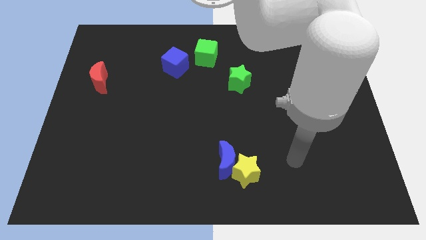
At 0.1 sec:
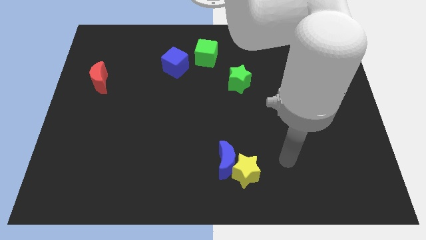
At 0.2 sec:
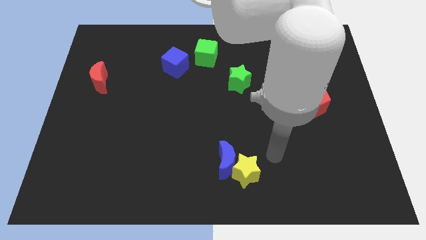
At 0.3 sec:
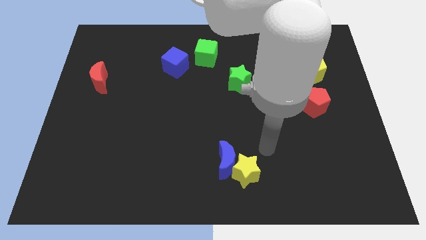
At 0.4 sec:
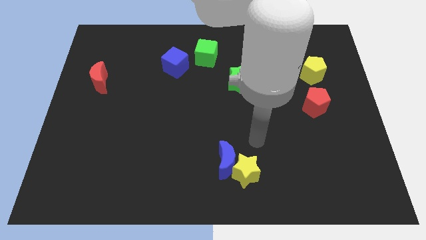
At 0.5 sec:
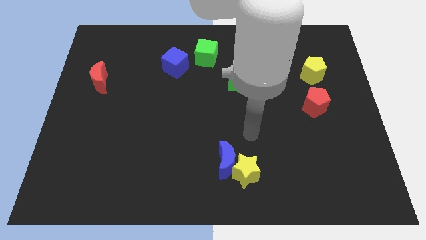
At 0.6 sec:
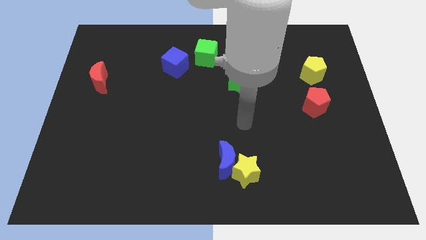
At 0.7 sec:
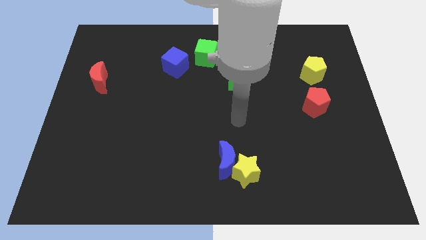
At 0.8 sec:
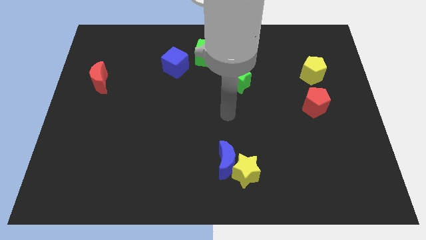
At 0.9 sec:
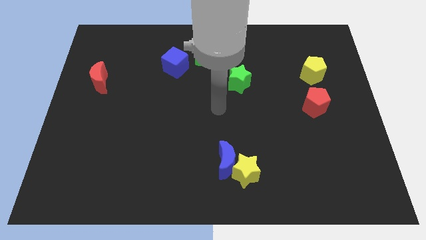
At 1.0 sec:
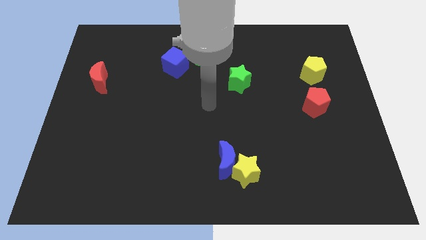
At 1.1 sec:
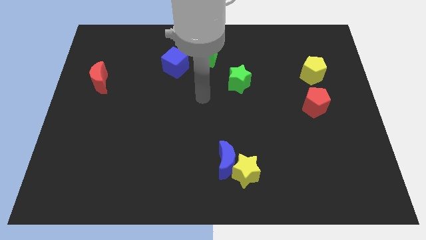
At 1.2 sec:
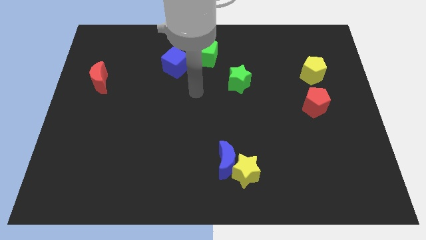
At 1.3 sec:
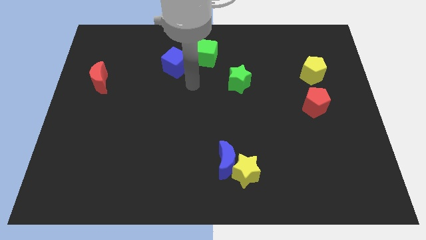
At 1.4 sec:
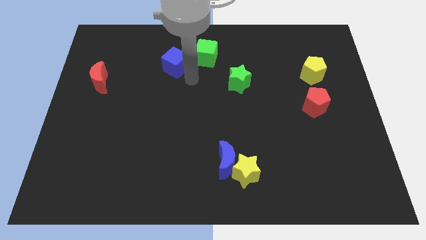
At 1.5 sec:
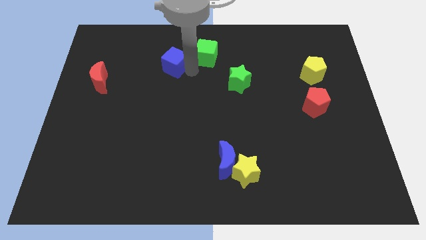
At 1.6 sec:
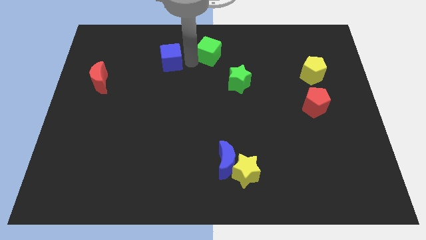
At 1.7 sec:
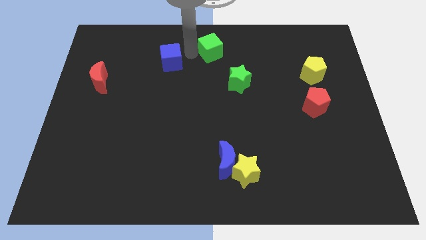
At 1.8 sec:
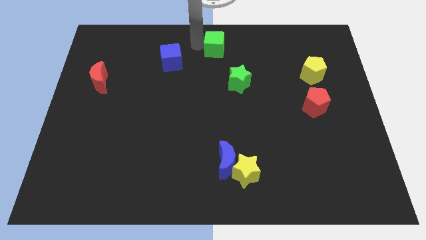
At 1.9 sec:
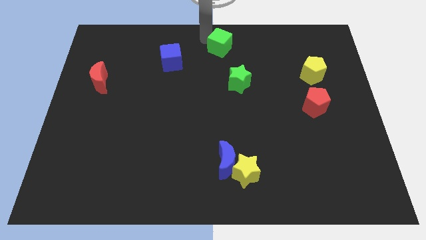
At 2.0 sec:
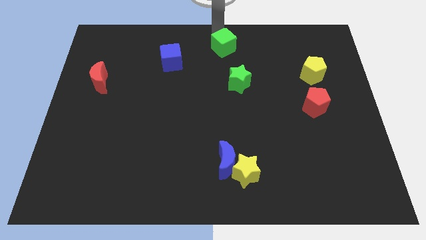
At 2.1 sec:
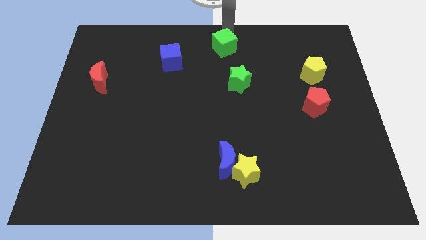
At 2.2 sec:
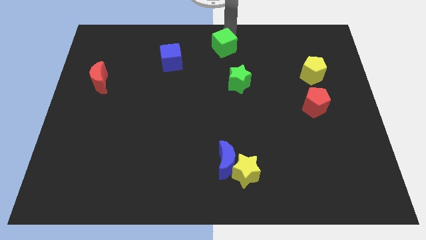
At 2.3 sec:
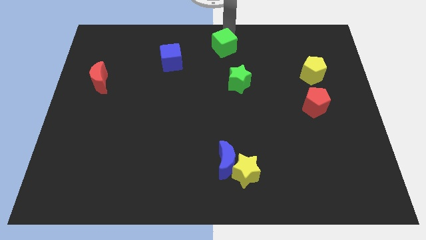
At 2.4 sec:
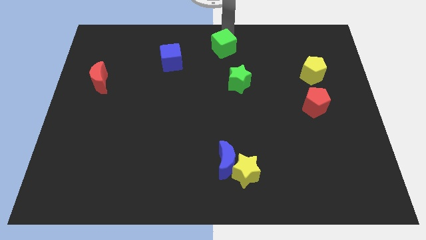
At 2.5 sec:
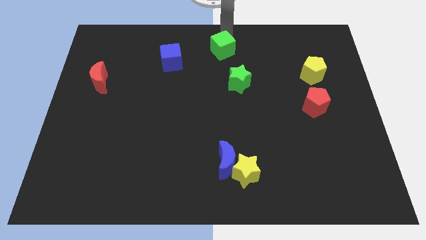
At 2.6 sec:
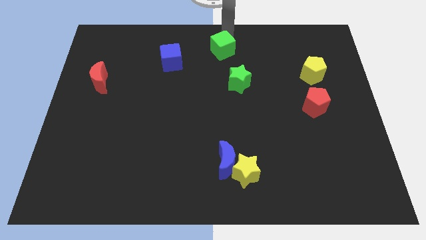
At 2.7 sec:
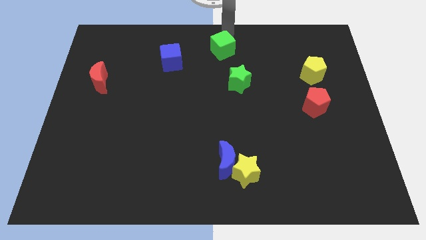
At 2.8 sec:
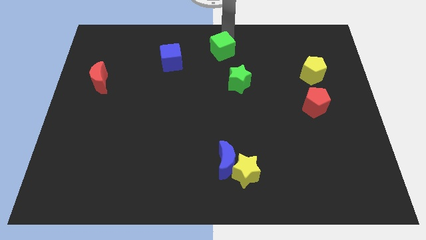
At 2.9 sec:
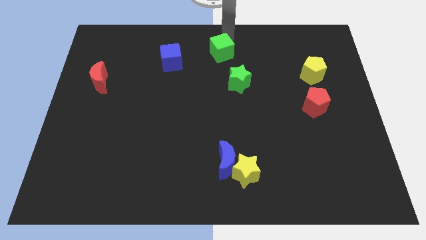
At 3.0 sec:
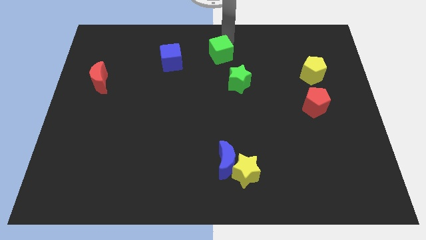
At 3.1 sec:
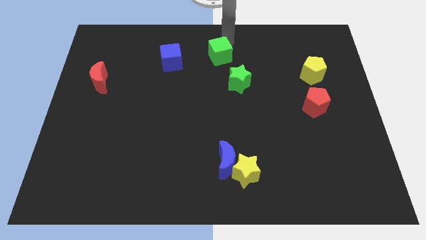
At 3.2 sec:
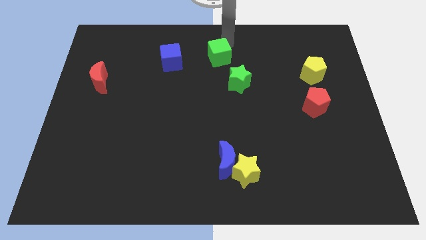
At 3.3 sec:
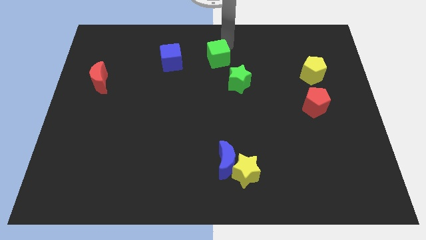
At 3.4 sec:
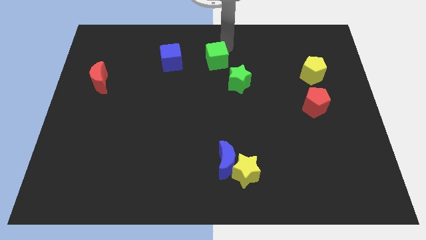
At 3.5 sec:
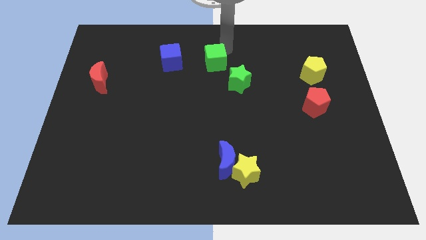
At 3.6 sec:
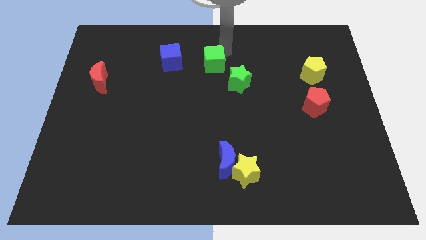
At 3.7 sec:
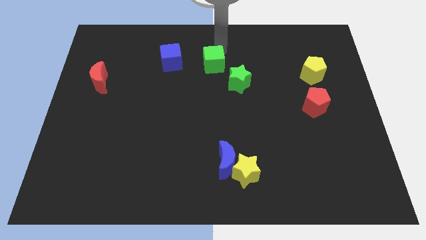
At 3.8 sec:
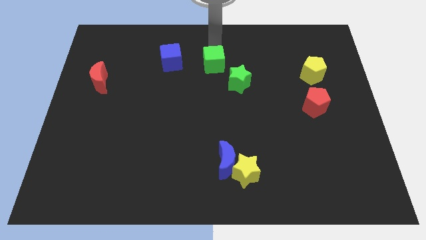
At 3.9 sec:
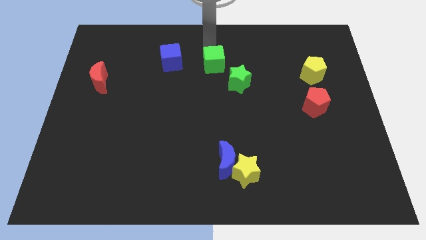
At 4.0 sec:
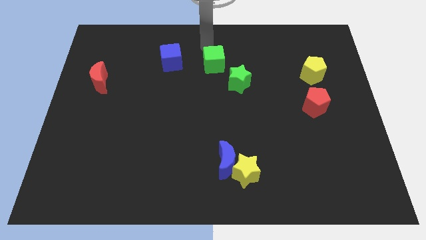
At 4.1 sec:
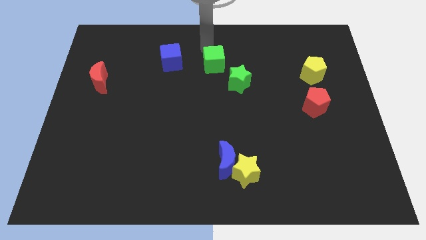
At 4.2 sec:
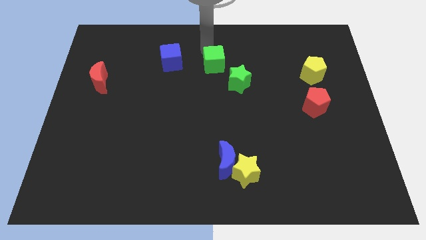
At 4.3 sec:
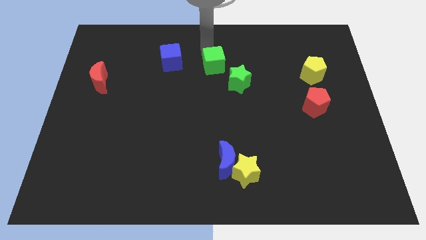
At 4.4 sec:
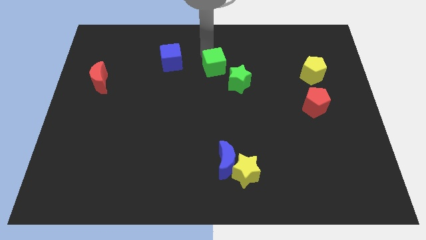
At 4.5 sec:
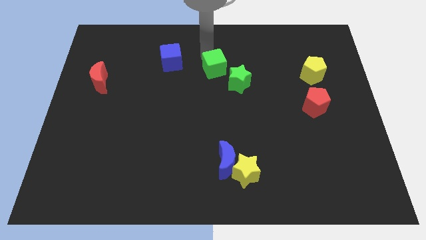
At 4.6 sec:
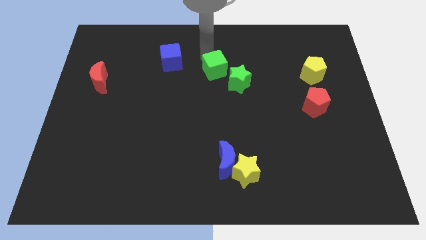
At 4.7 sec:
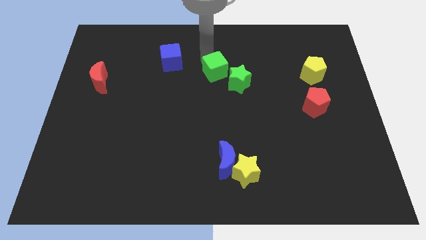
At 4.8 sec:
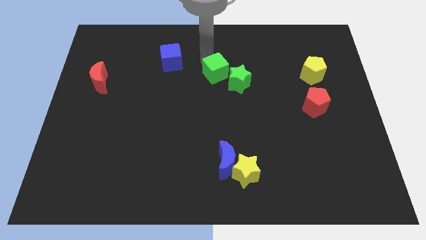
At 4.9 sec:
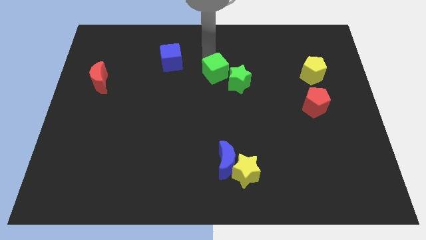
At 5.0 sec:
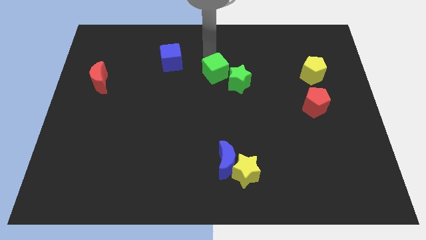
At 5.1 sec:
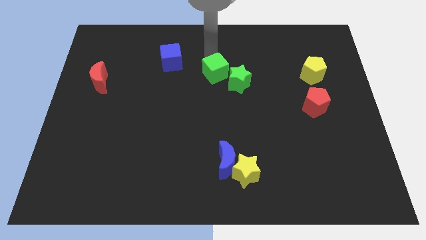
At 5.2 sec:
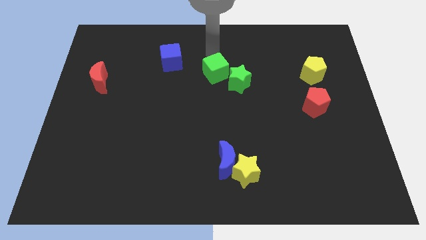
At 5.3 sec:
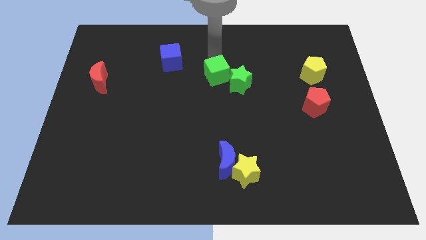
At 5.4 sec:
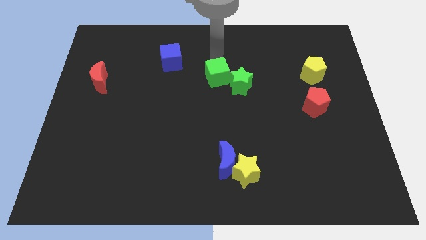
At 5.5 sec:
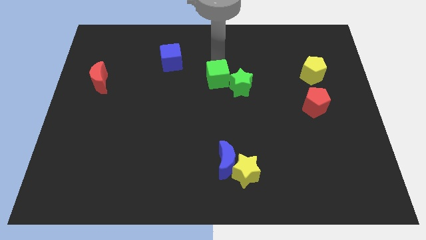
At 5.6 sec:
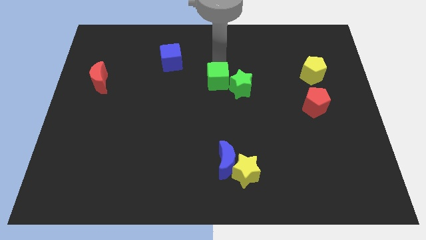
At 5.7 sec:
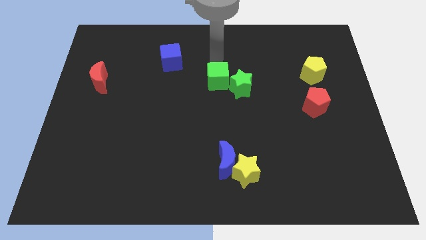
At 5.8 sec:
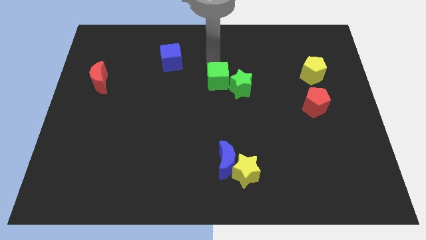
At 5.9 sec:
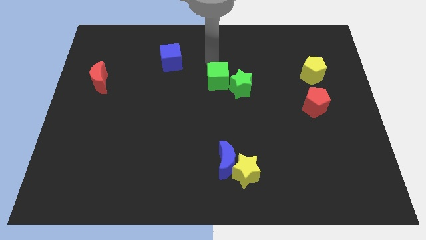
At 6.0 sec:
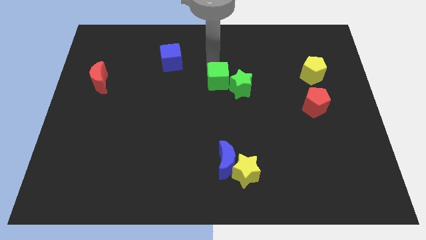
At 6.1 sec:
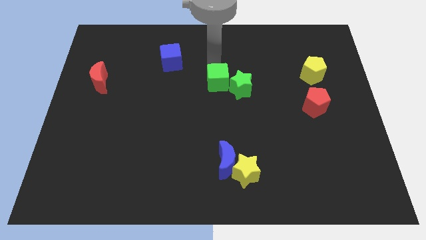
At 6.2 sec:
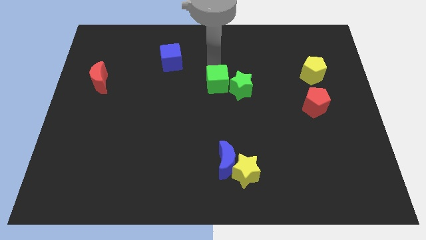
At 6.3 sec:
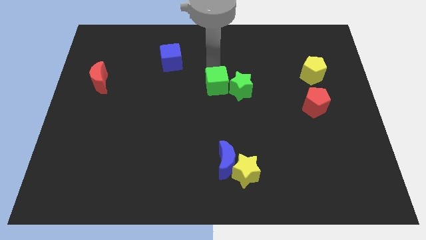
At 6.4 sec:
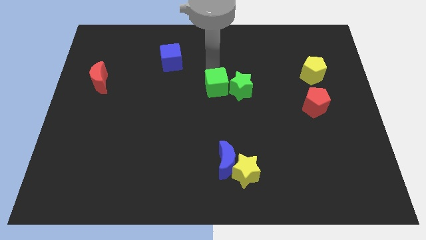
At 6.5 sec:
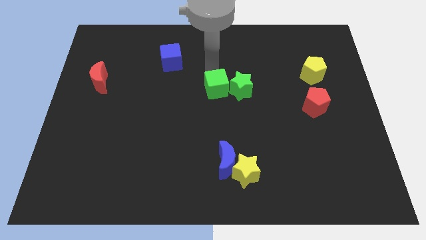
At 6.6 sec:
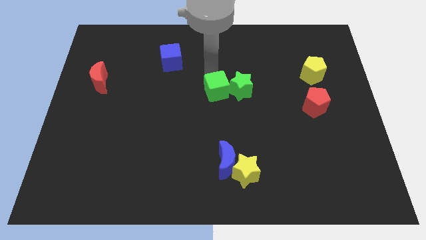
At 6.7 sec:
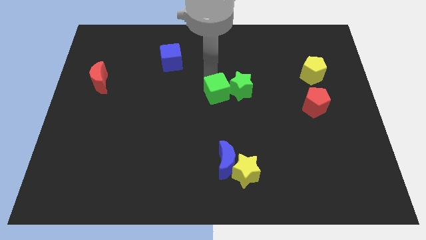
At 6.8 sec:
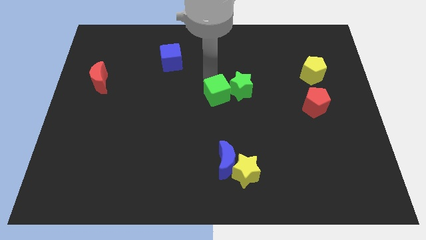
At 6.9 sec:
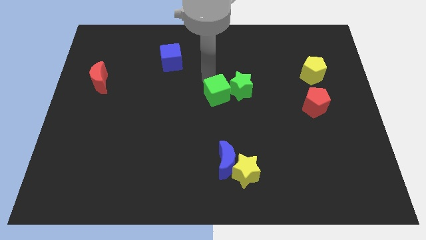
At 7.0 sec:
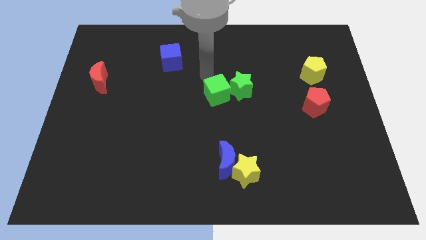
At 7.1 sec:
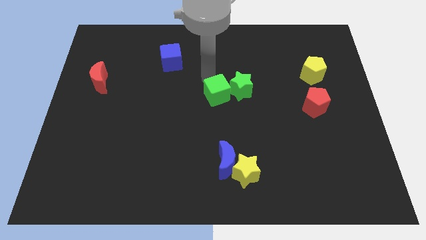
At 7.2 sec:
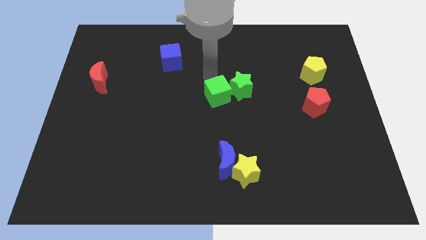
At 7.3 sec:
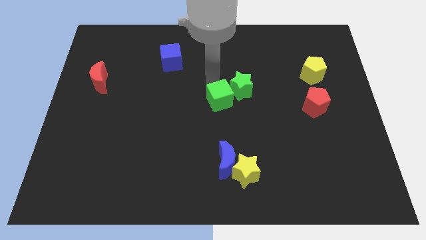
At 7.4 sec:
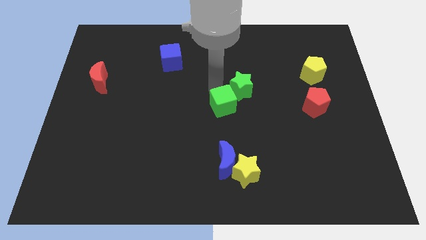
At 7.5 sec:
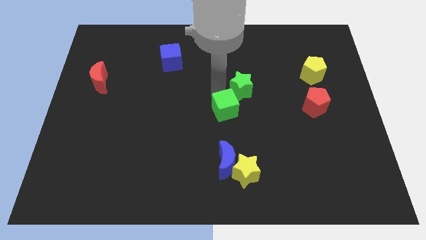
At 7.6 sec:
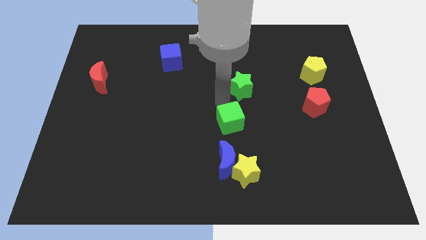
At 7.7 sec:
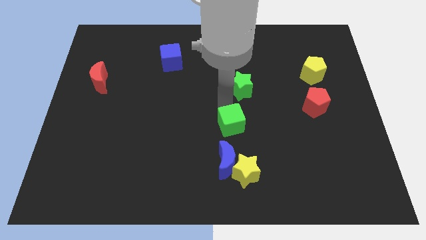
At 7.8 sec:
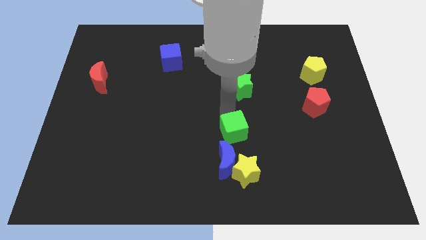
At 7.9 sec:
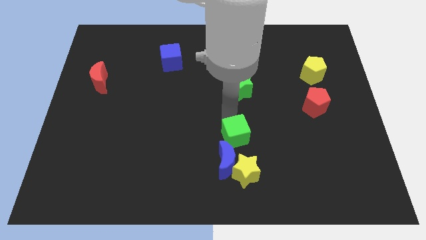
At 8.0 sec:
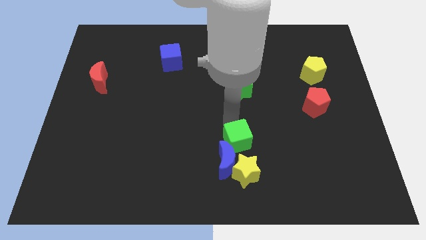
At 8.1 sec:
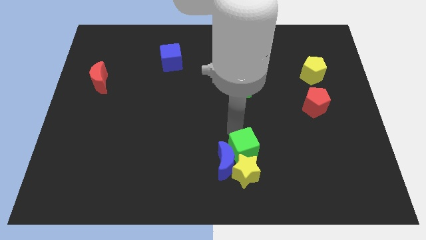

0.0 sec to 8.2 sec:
slide the green cube to the yellow star
